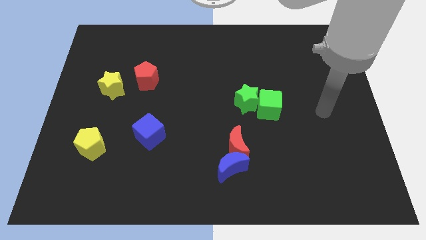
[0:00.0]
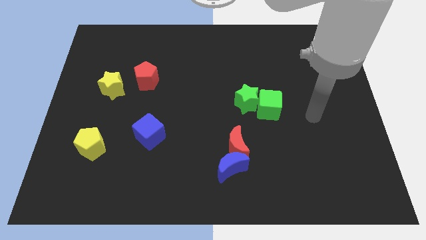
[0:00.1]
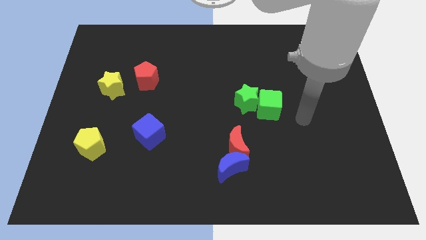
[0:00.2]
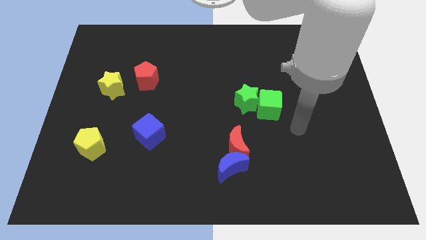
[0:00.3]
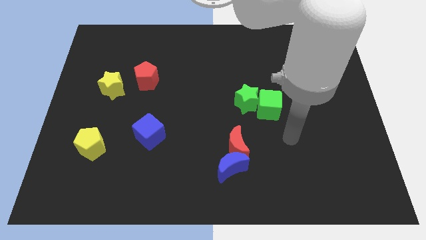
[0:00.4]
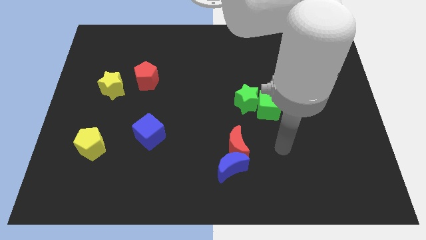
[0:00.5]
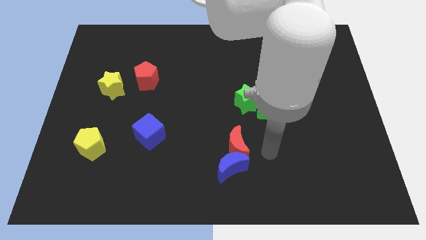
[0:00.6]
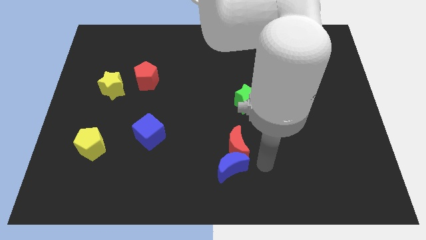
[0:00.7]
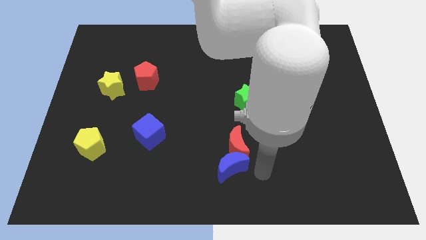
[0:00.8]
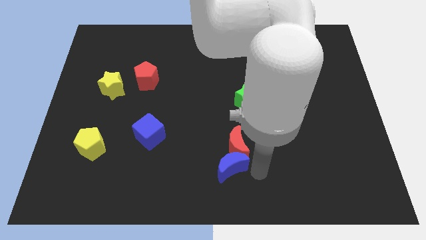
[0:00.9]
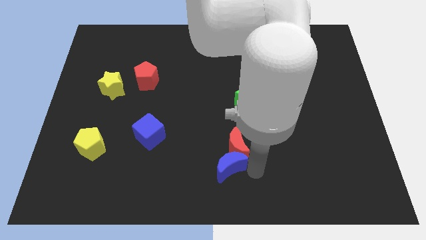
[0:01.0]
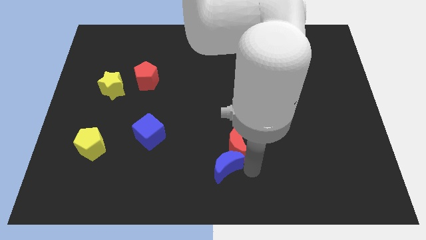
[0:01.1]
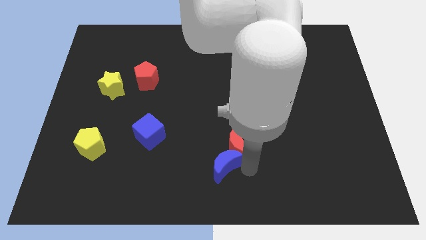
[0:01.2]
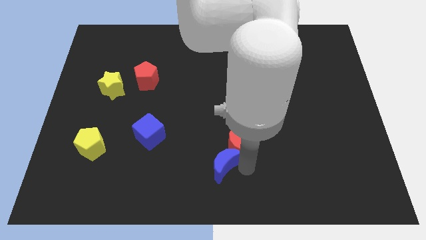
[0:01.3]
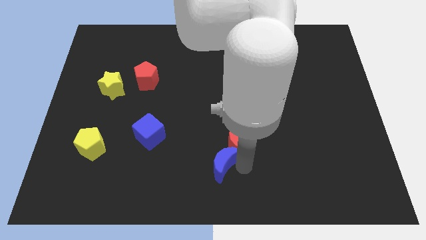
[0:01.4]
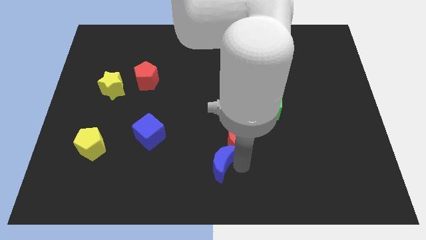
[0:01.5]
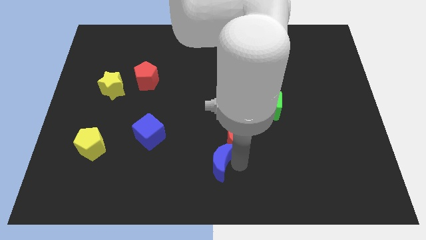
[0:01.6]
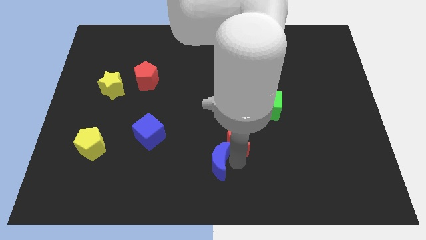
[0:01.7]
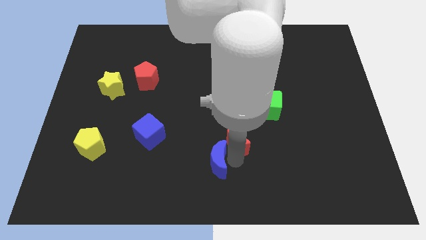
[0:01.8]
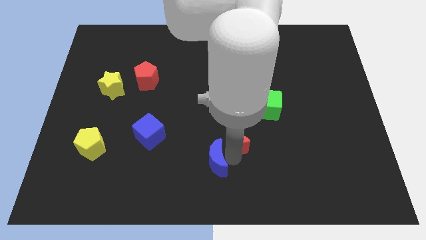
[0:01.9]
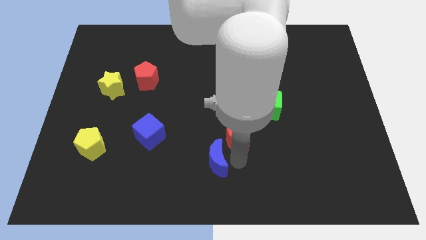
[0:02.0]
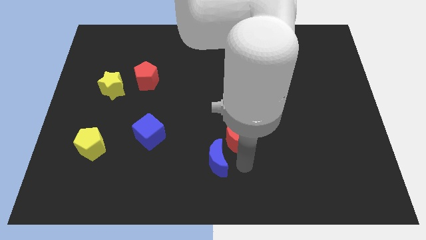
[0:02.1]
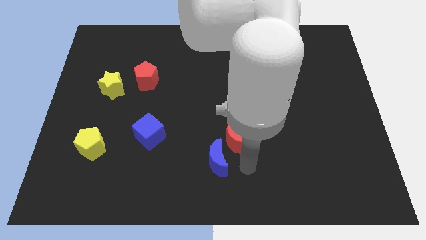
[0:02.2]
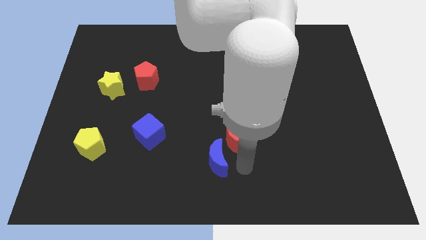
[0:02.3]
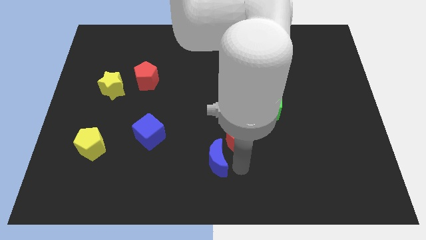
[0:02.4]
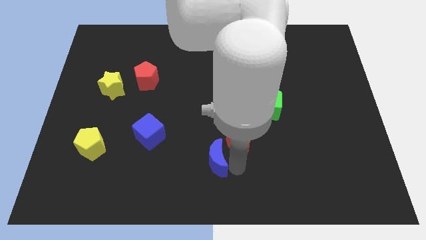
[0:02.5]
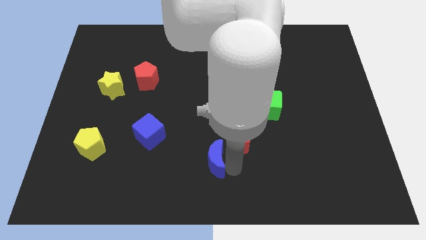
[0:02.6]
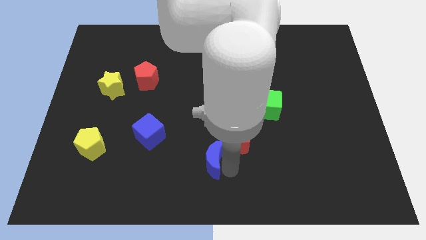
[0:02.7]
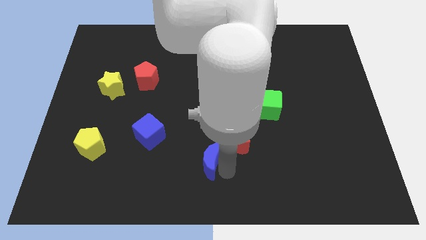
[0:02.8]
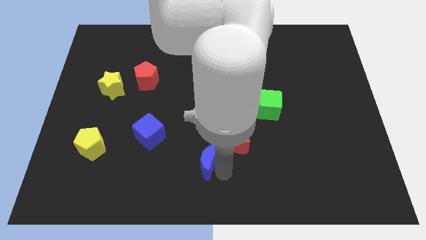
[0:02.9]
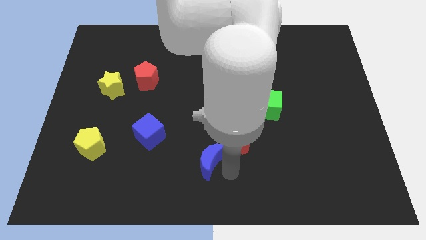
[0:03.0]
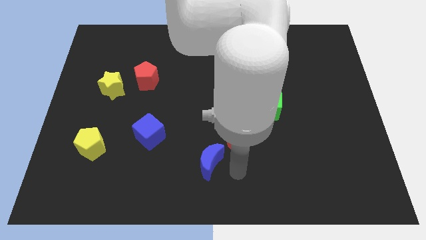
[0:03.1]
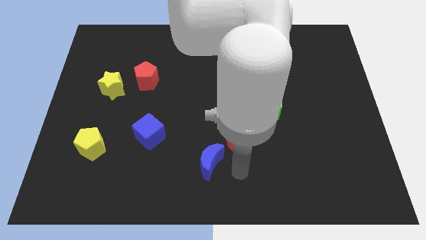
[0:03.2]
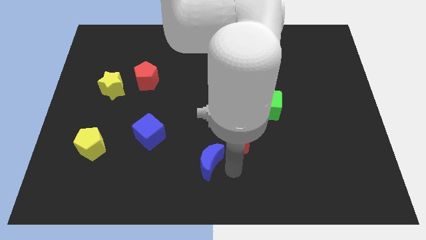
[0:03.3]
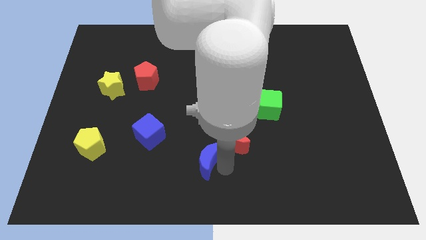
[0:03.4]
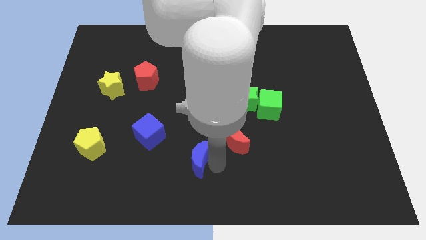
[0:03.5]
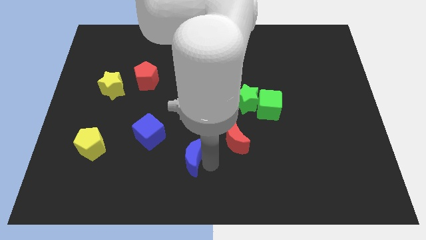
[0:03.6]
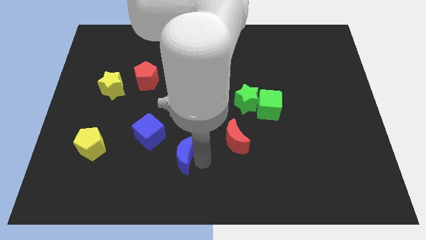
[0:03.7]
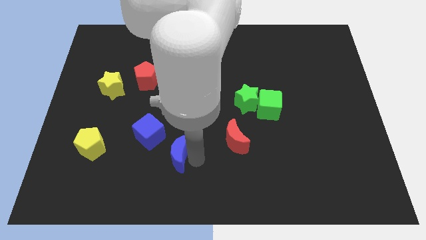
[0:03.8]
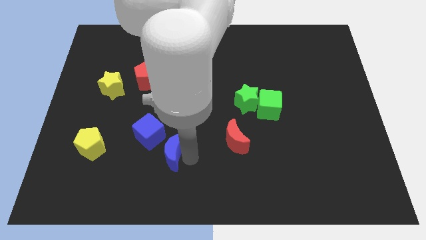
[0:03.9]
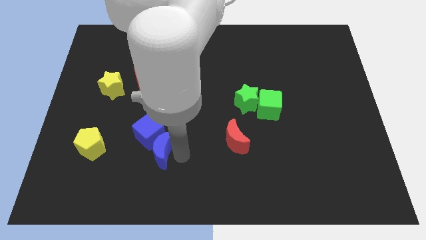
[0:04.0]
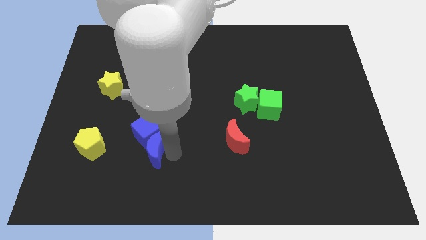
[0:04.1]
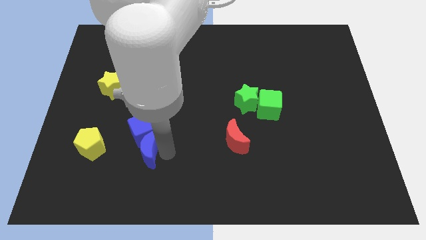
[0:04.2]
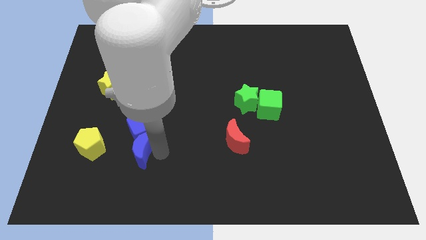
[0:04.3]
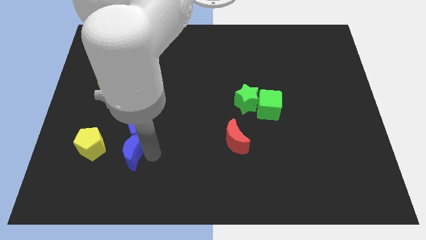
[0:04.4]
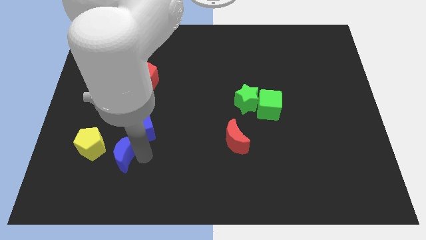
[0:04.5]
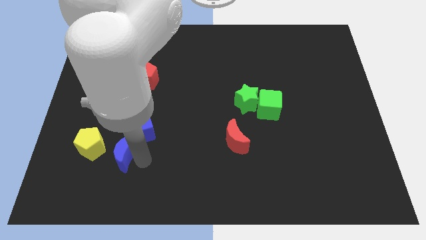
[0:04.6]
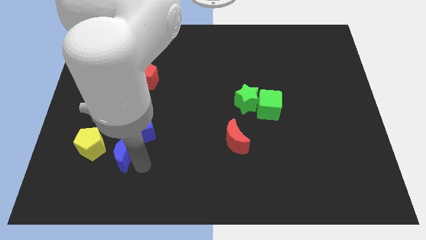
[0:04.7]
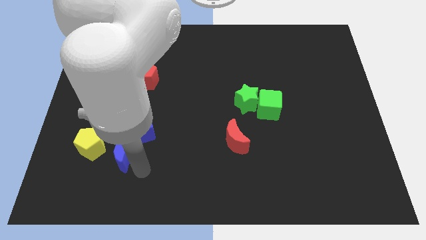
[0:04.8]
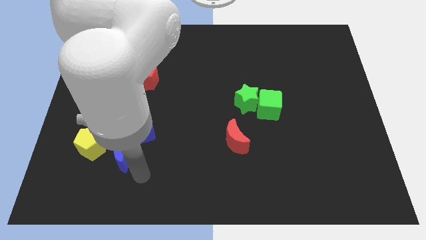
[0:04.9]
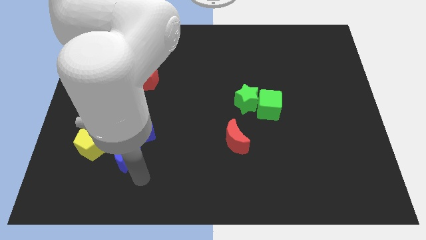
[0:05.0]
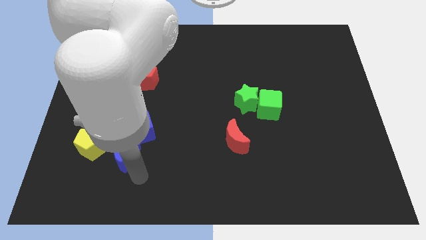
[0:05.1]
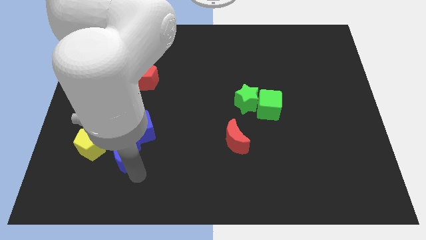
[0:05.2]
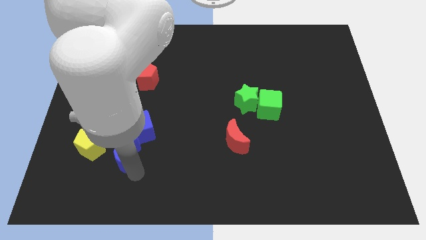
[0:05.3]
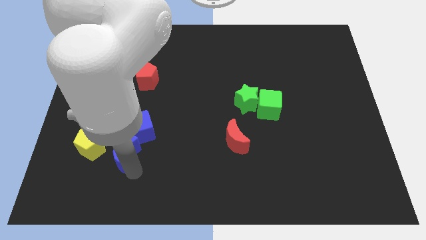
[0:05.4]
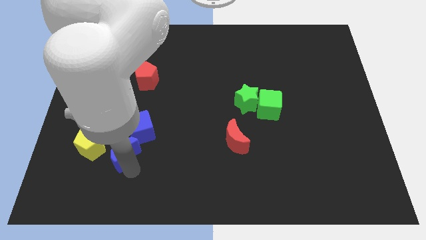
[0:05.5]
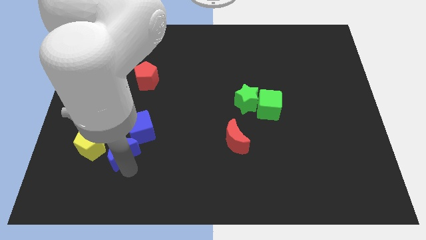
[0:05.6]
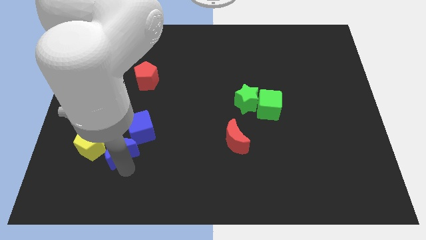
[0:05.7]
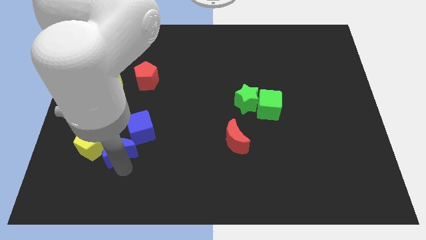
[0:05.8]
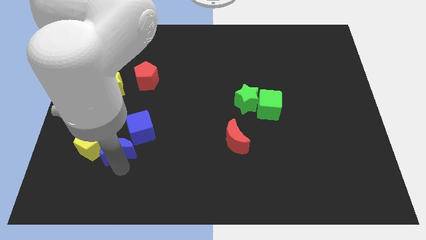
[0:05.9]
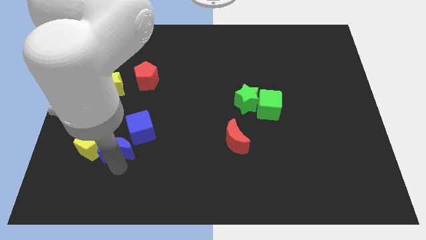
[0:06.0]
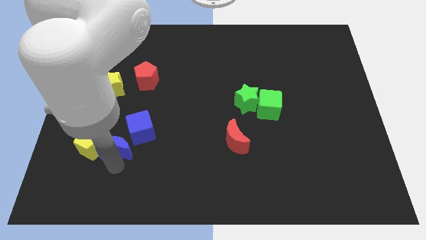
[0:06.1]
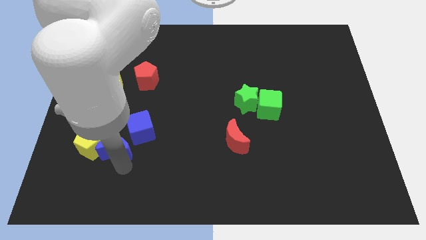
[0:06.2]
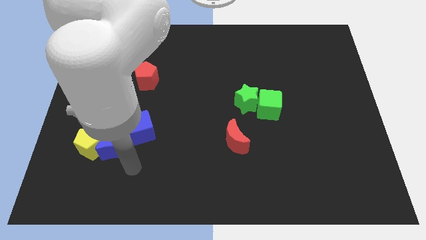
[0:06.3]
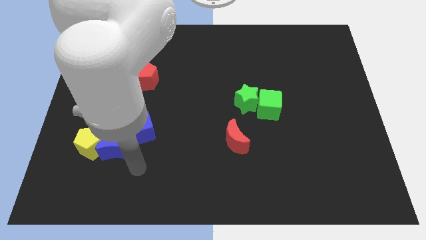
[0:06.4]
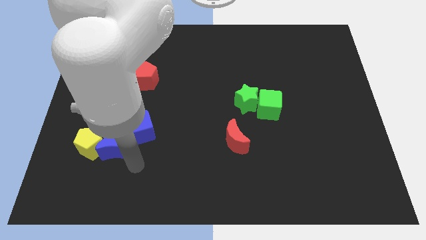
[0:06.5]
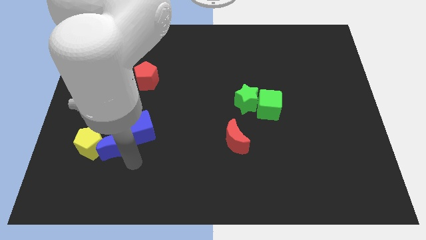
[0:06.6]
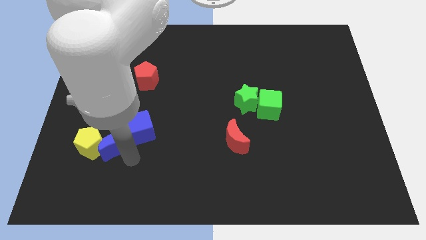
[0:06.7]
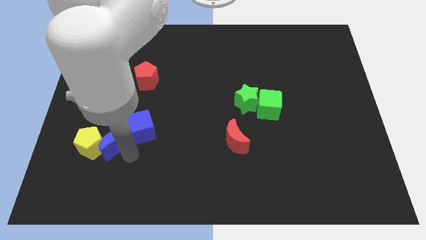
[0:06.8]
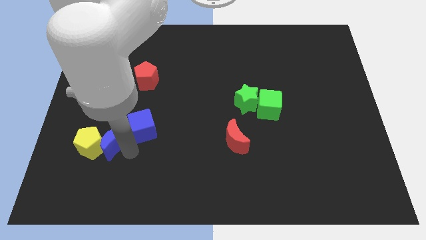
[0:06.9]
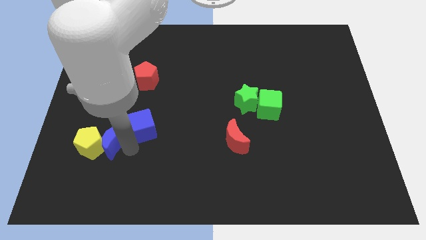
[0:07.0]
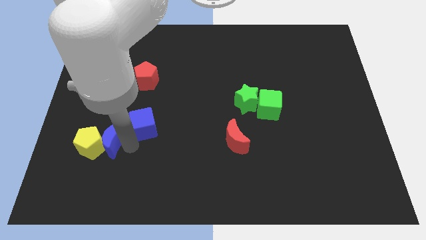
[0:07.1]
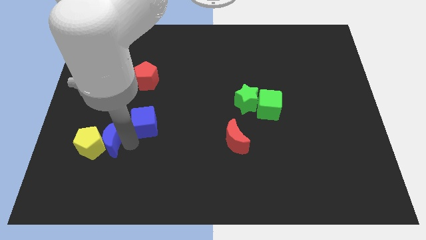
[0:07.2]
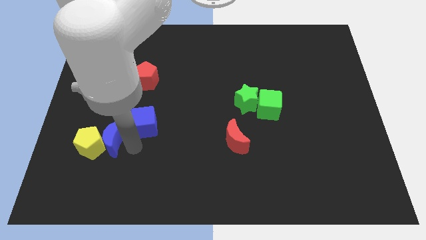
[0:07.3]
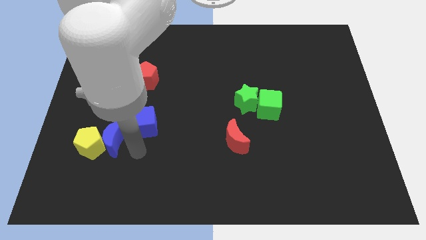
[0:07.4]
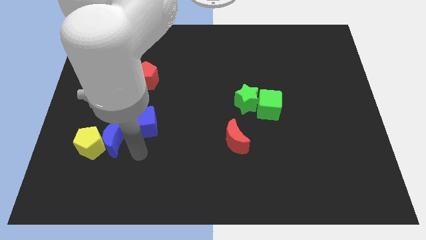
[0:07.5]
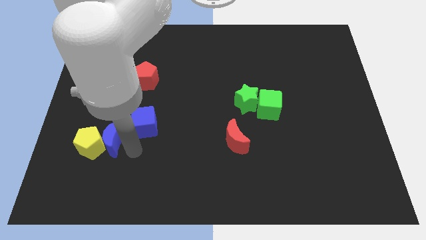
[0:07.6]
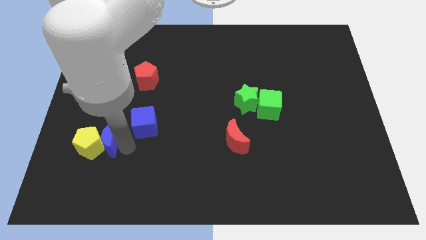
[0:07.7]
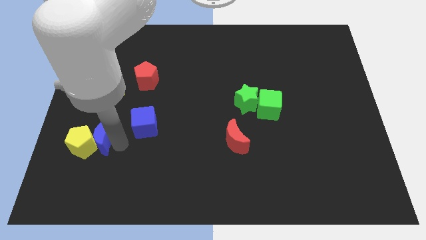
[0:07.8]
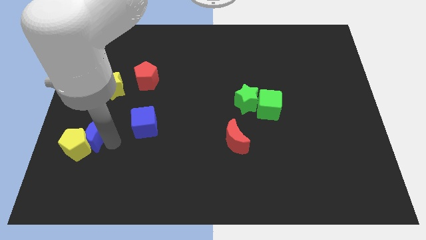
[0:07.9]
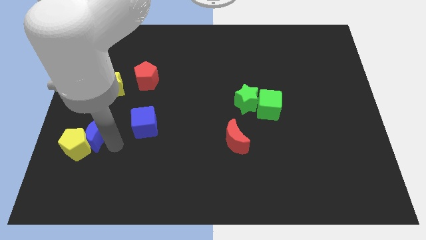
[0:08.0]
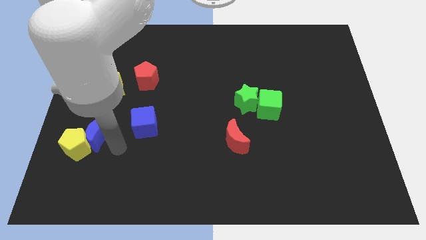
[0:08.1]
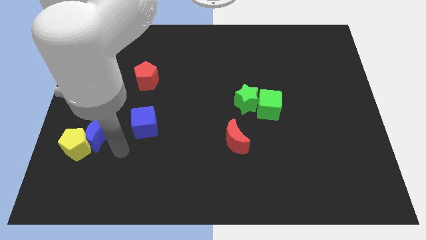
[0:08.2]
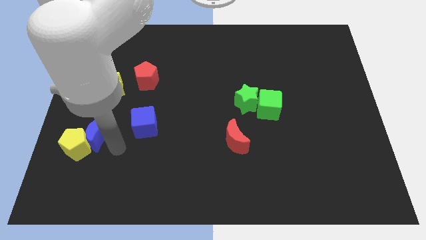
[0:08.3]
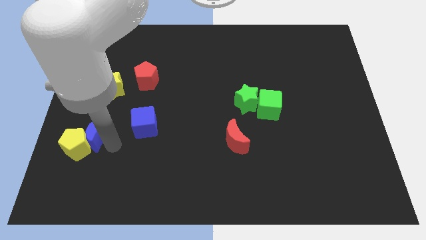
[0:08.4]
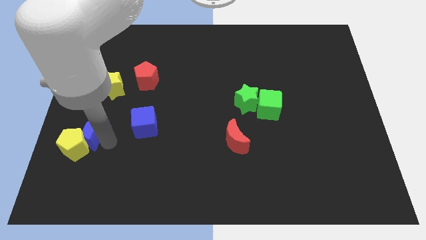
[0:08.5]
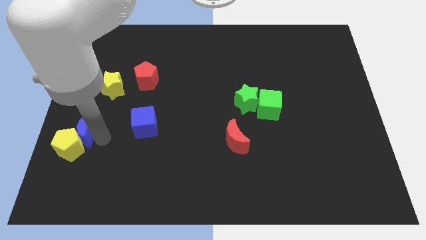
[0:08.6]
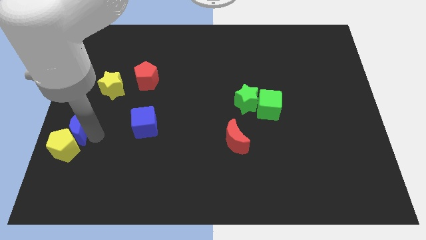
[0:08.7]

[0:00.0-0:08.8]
slide the blue moon to the left side
